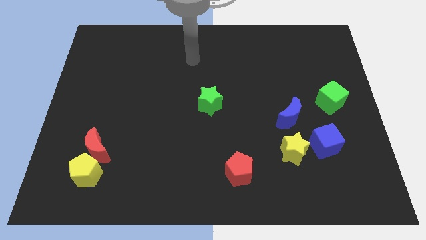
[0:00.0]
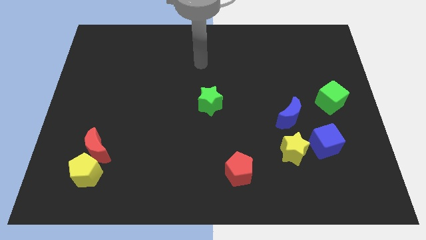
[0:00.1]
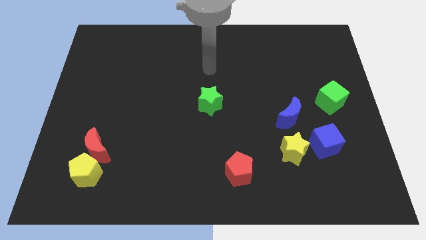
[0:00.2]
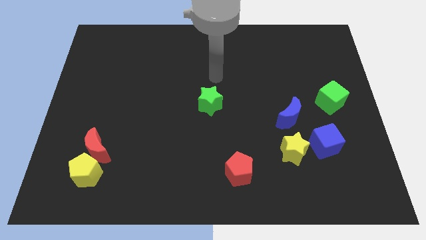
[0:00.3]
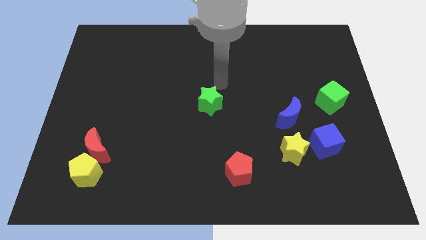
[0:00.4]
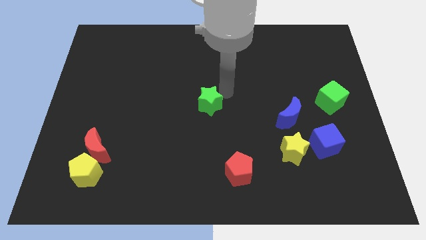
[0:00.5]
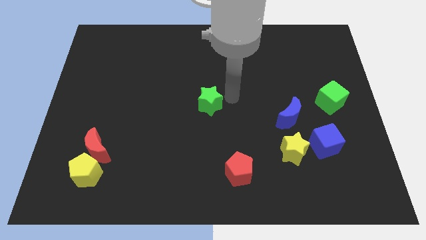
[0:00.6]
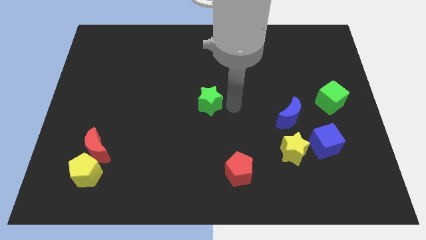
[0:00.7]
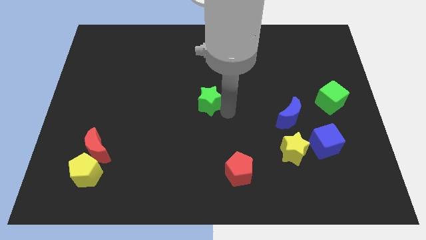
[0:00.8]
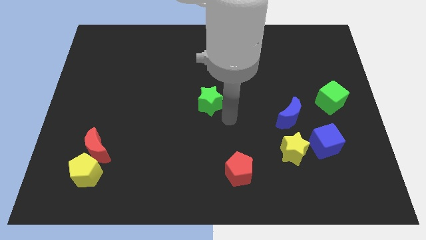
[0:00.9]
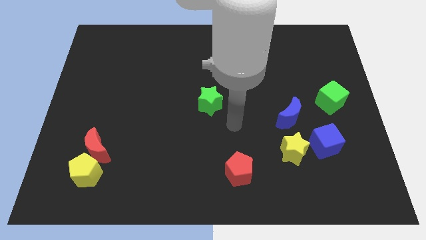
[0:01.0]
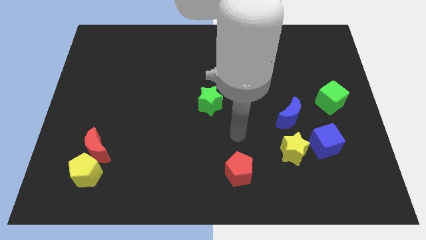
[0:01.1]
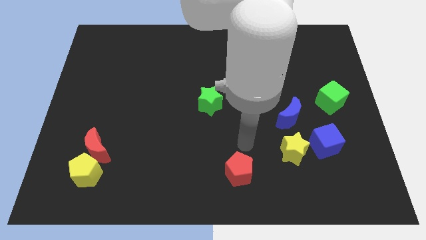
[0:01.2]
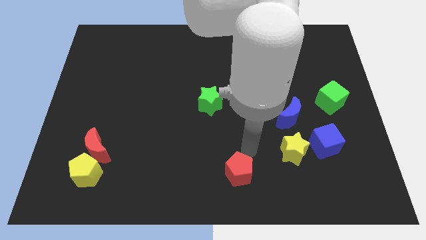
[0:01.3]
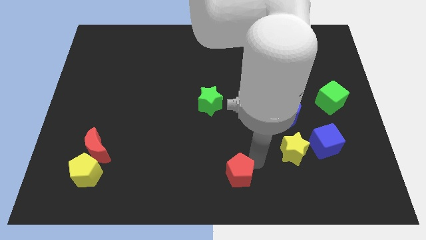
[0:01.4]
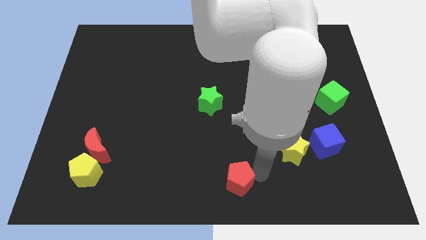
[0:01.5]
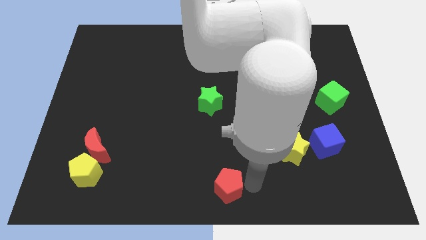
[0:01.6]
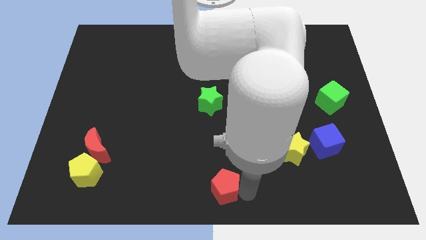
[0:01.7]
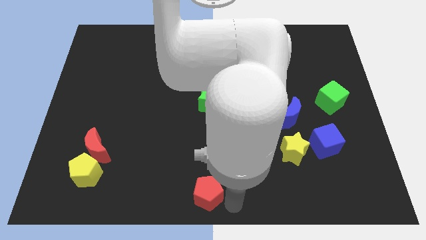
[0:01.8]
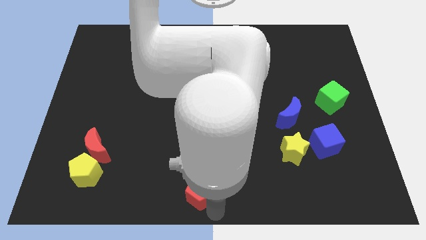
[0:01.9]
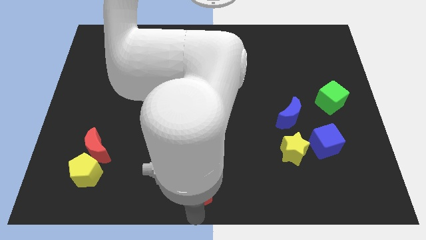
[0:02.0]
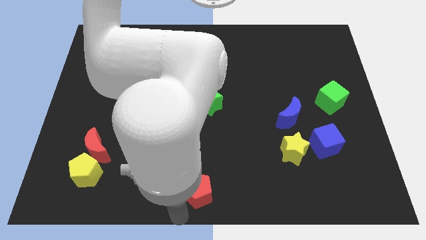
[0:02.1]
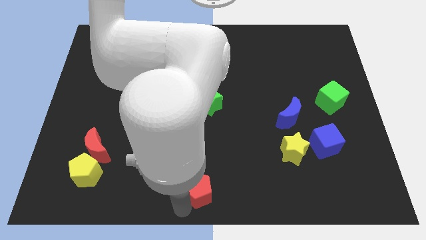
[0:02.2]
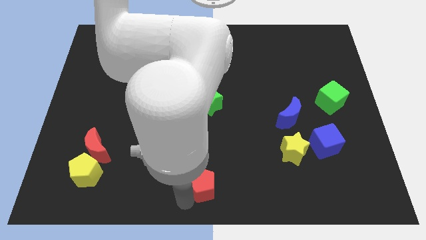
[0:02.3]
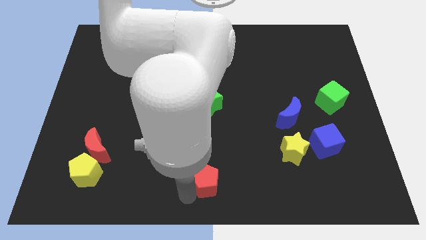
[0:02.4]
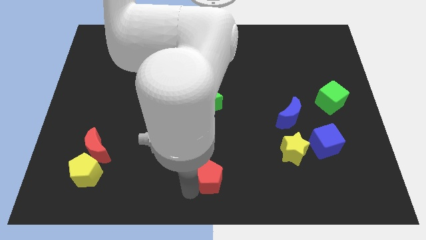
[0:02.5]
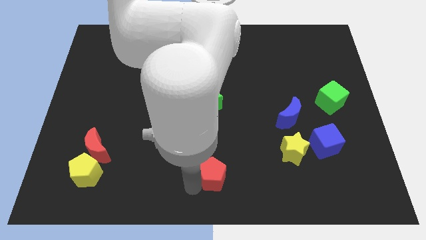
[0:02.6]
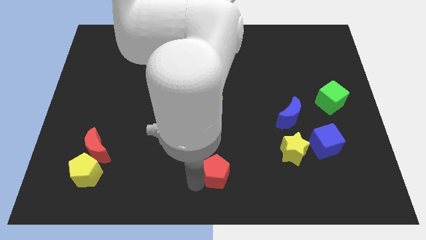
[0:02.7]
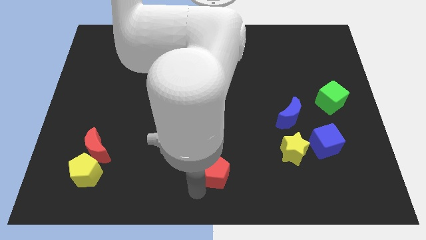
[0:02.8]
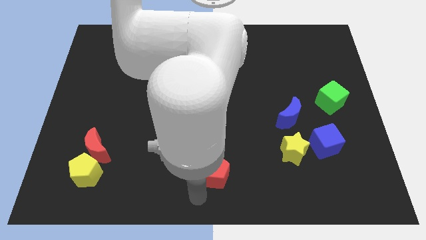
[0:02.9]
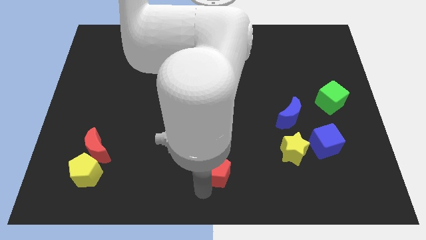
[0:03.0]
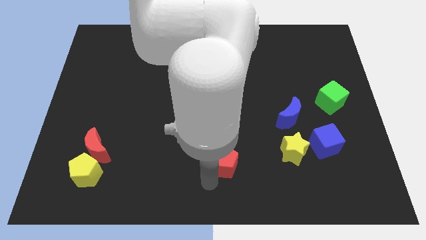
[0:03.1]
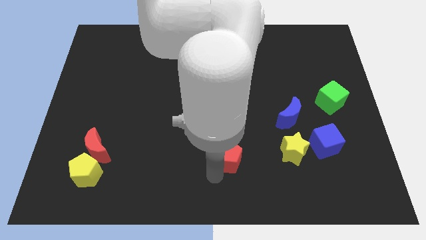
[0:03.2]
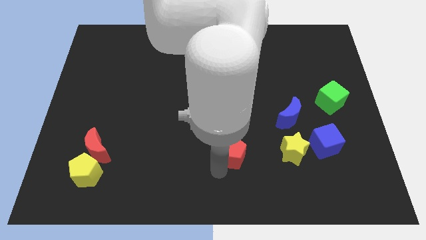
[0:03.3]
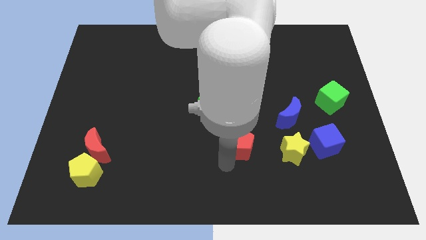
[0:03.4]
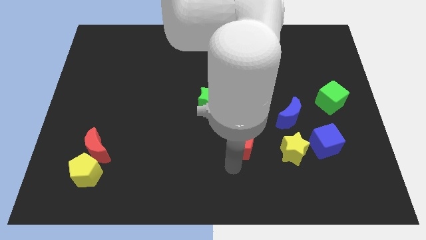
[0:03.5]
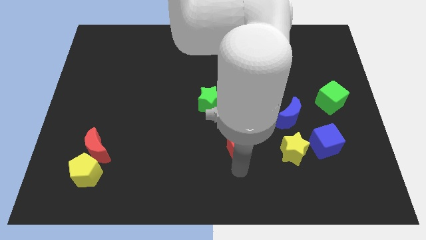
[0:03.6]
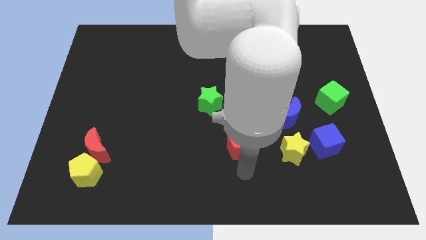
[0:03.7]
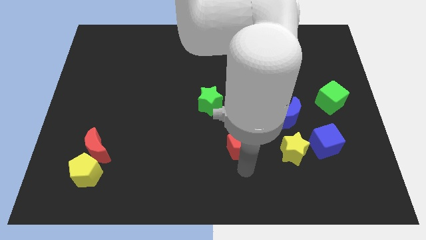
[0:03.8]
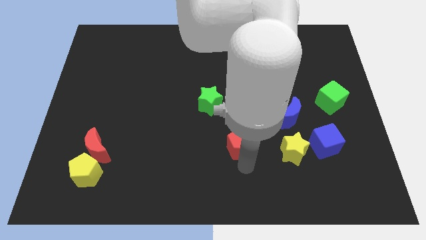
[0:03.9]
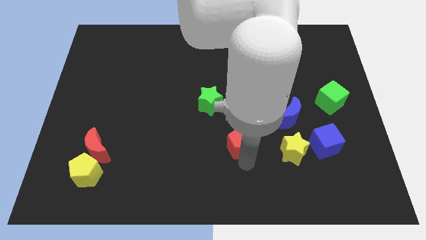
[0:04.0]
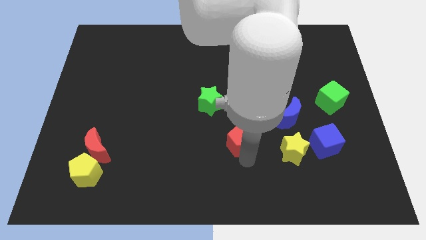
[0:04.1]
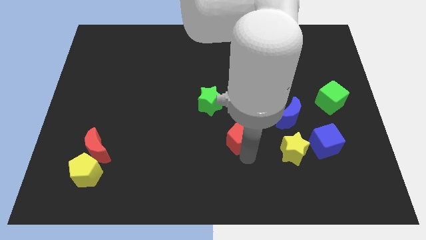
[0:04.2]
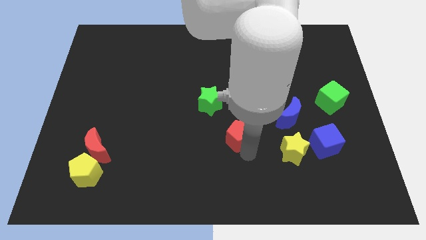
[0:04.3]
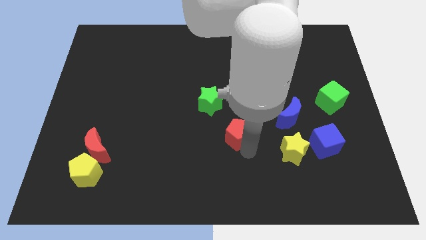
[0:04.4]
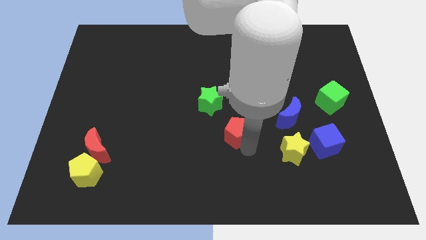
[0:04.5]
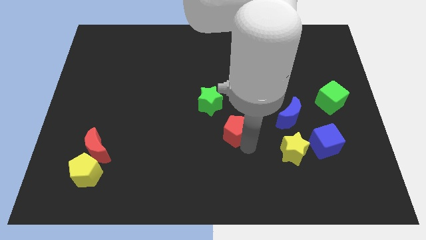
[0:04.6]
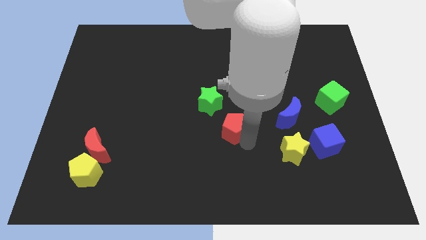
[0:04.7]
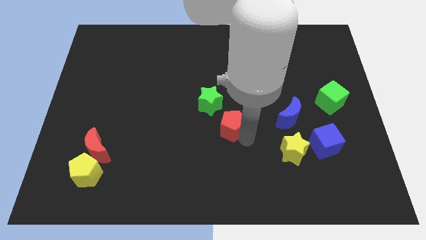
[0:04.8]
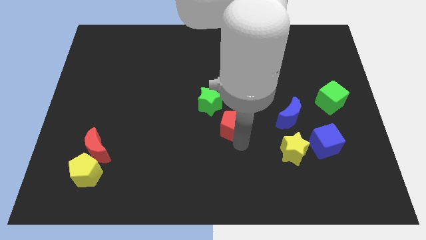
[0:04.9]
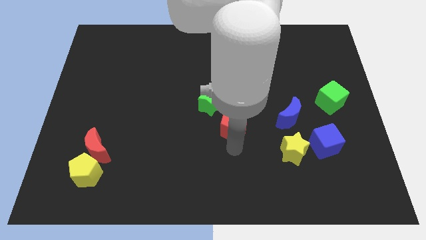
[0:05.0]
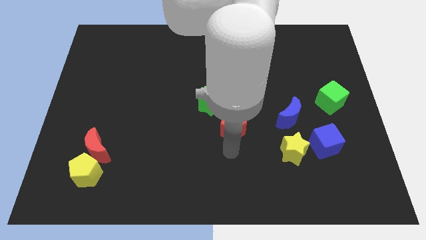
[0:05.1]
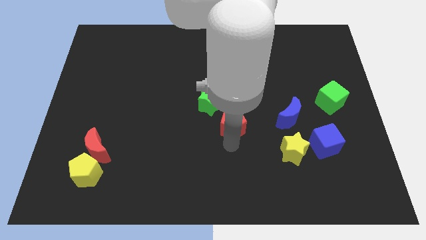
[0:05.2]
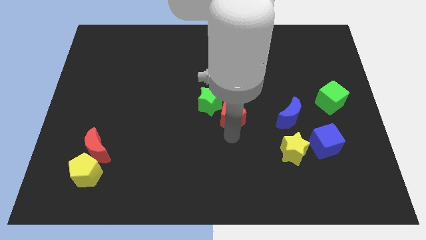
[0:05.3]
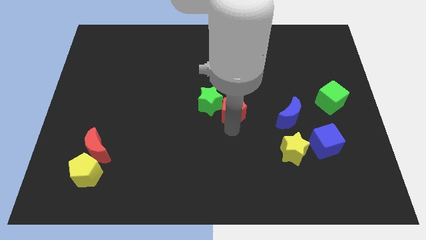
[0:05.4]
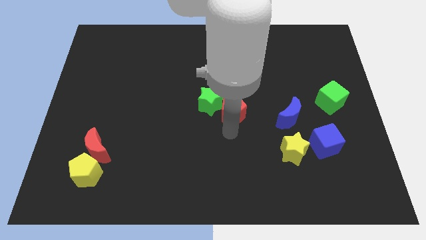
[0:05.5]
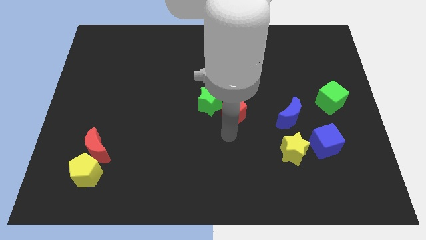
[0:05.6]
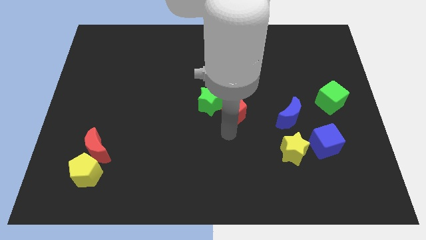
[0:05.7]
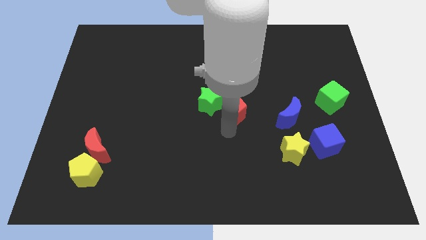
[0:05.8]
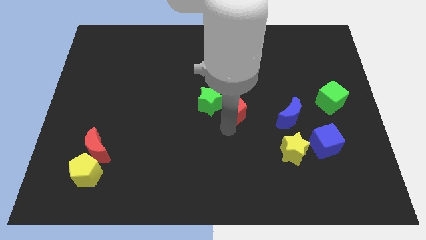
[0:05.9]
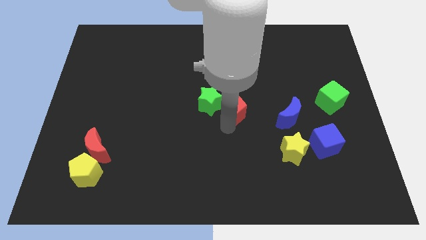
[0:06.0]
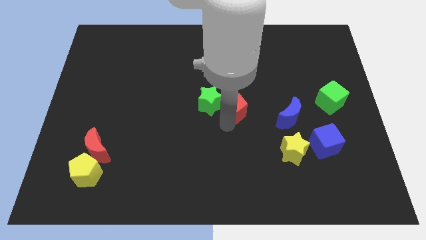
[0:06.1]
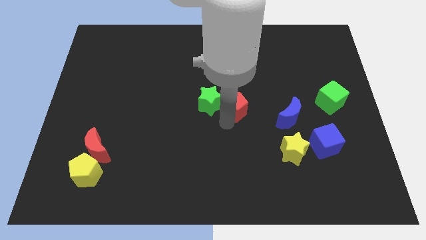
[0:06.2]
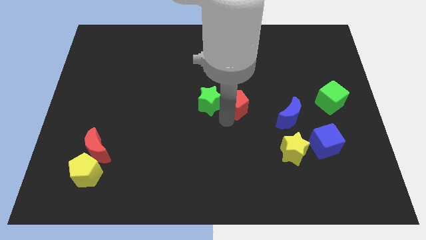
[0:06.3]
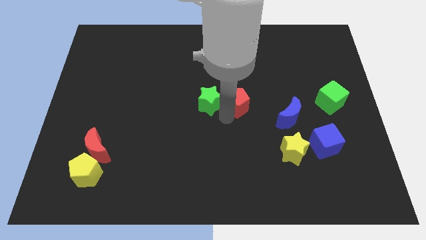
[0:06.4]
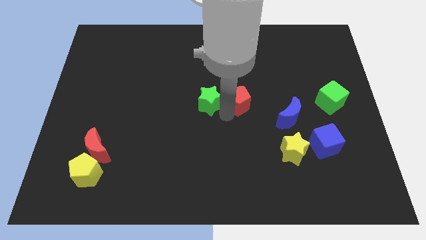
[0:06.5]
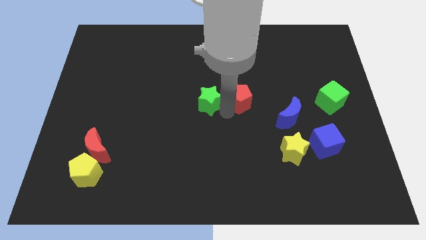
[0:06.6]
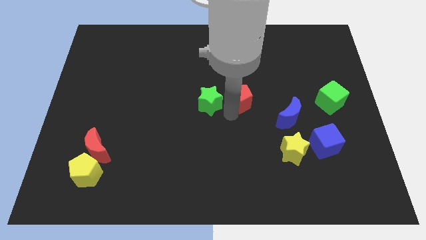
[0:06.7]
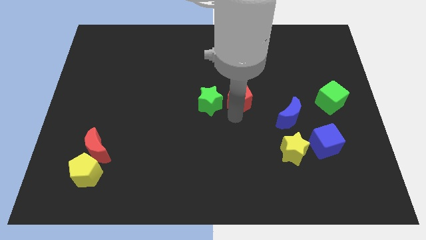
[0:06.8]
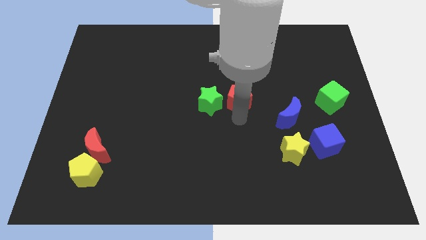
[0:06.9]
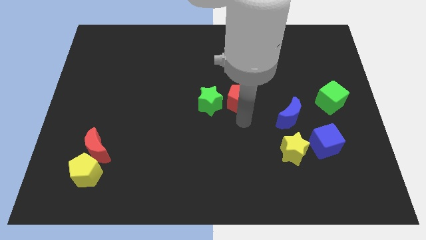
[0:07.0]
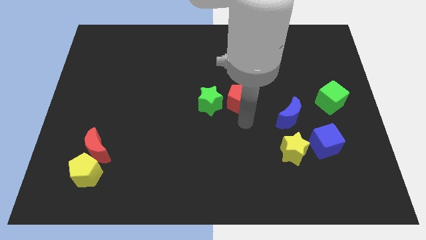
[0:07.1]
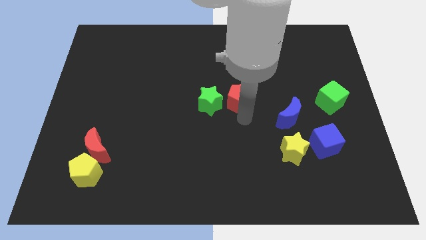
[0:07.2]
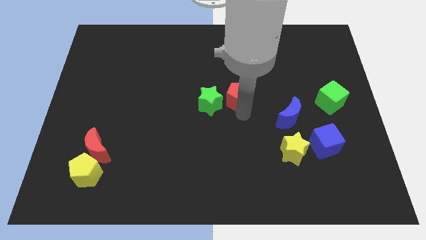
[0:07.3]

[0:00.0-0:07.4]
push the red pentagon upwards

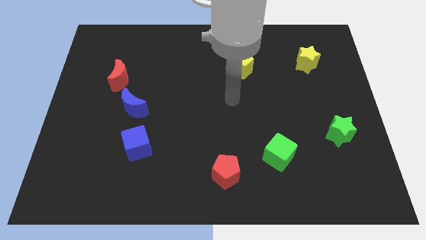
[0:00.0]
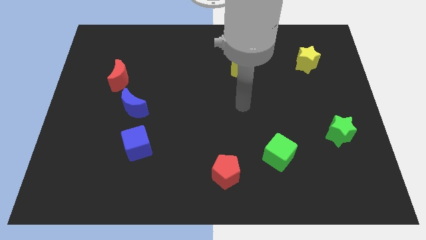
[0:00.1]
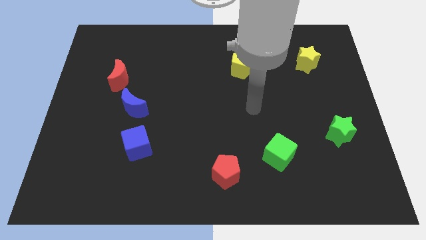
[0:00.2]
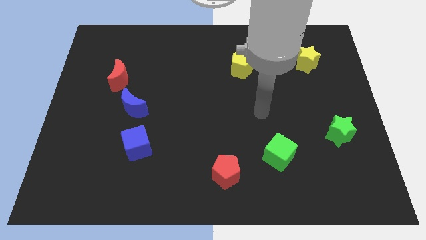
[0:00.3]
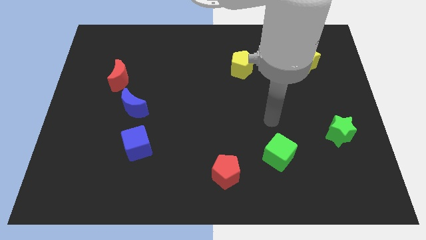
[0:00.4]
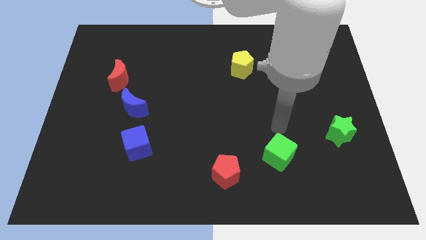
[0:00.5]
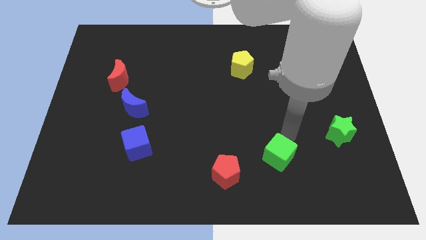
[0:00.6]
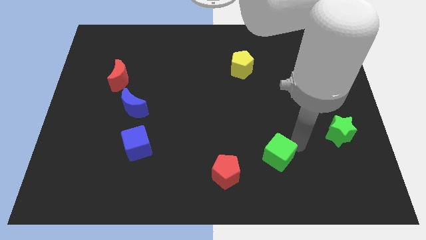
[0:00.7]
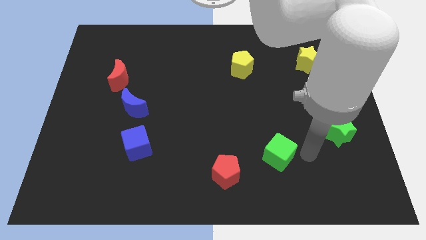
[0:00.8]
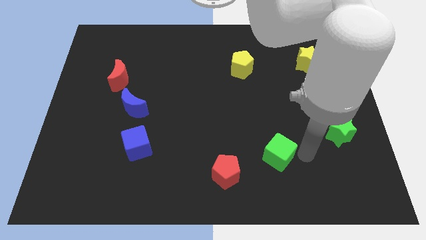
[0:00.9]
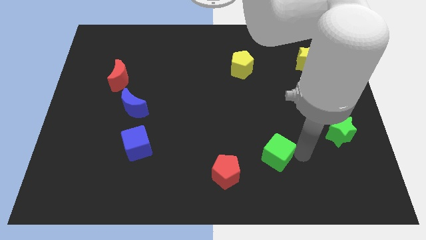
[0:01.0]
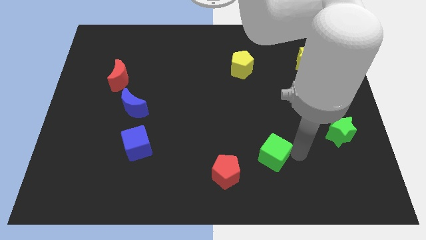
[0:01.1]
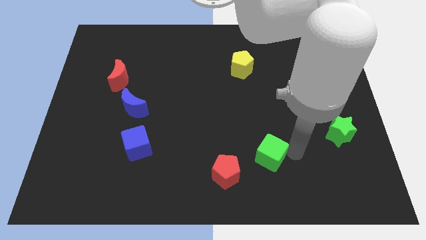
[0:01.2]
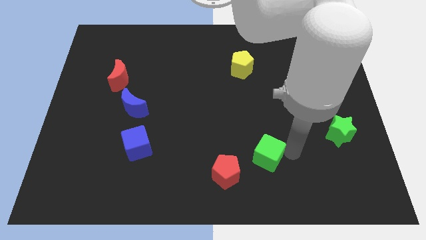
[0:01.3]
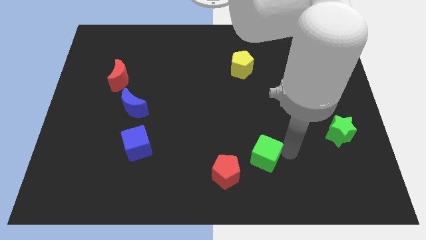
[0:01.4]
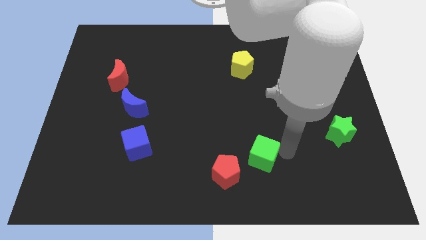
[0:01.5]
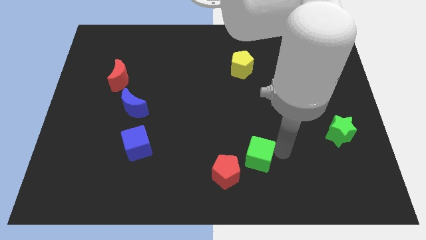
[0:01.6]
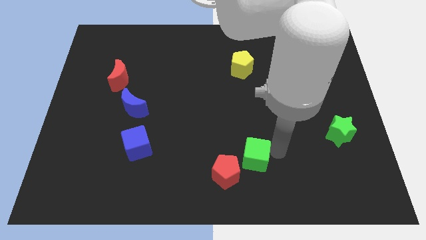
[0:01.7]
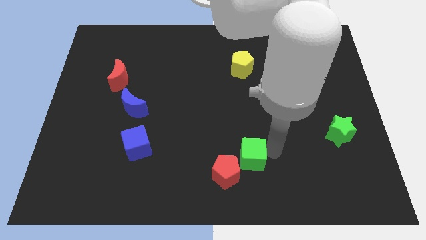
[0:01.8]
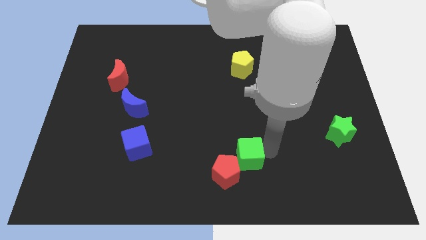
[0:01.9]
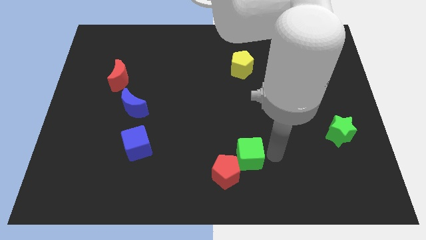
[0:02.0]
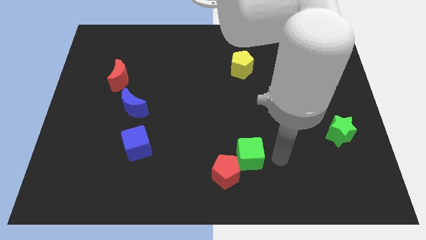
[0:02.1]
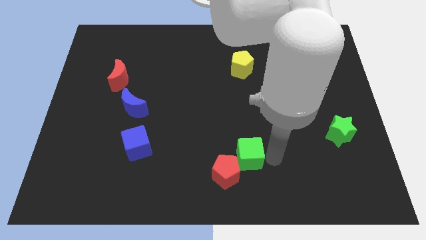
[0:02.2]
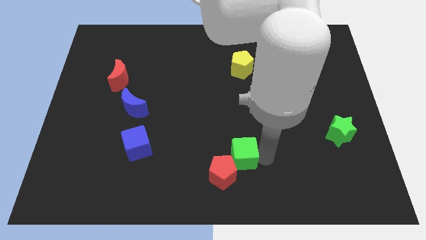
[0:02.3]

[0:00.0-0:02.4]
slide the green cube somewhat to the left
